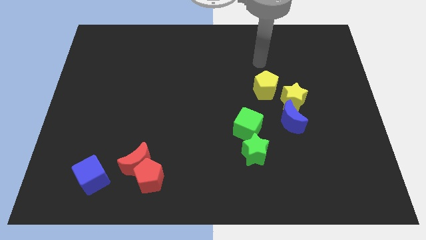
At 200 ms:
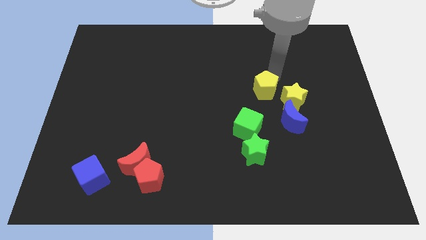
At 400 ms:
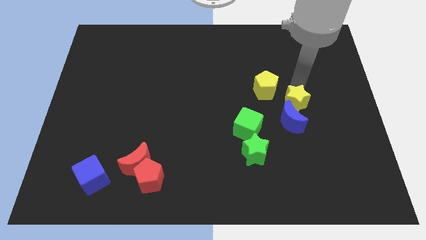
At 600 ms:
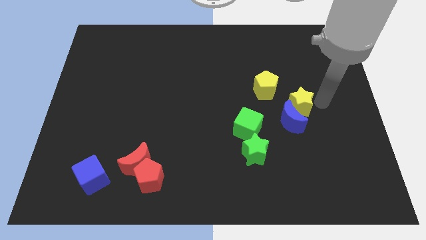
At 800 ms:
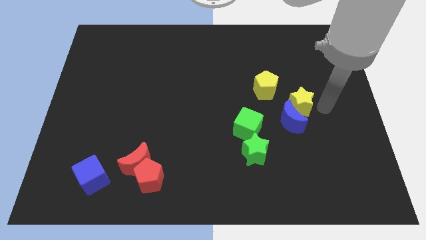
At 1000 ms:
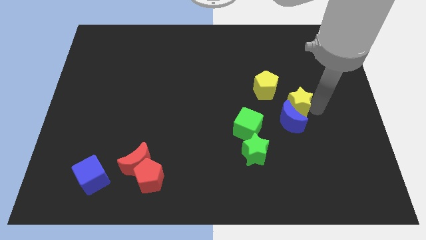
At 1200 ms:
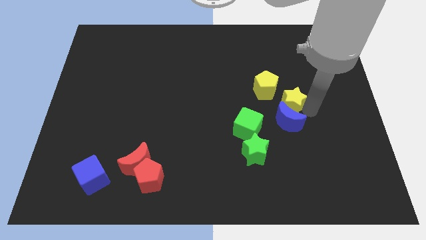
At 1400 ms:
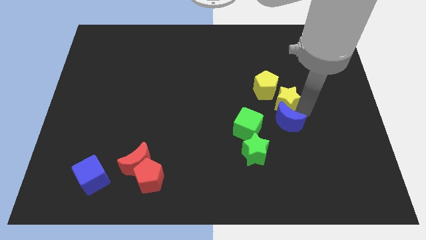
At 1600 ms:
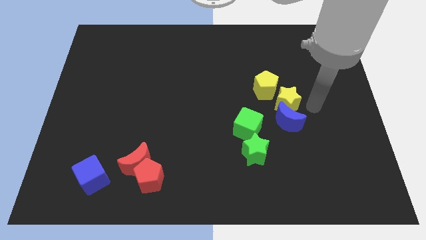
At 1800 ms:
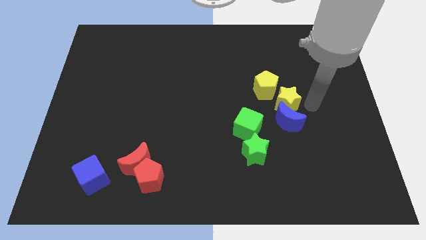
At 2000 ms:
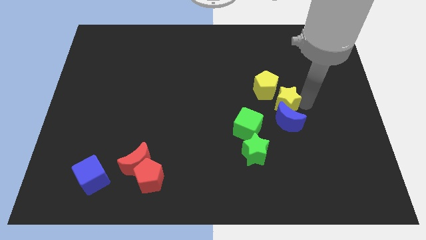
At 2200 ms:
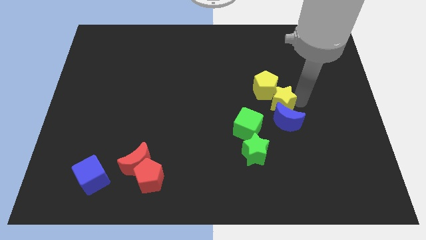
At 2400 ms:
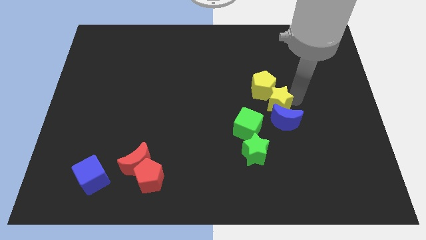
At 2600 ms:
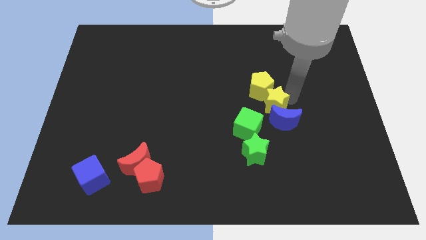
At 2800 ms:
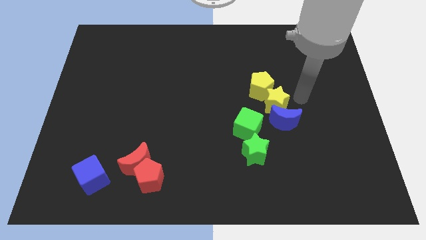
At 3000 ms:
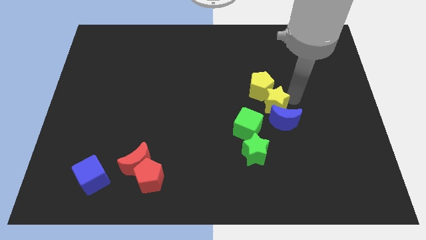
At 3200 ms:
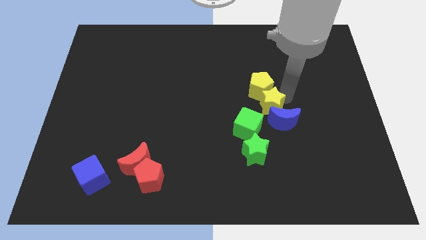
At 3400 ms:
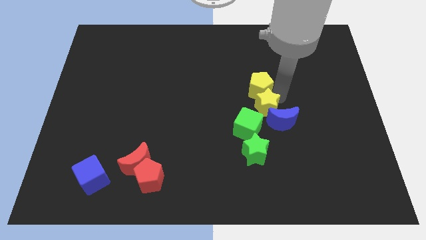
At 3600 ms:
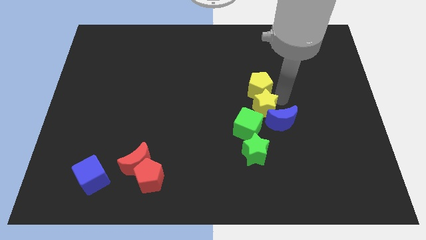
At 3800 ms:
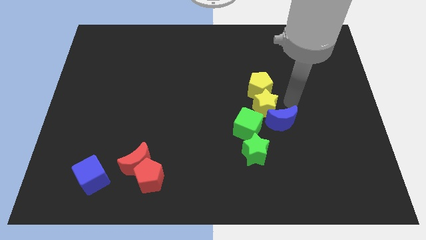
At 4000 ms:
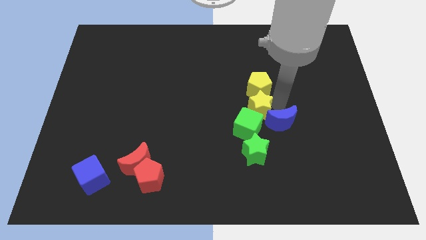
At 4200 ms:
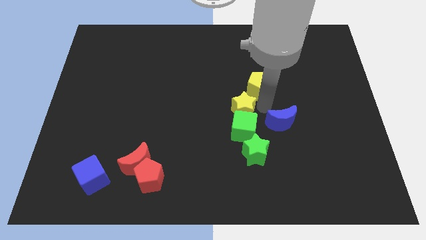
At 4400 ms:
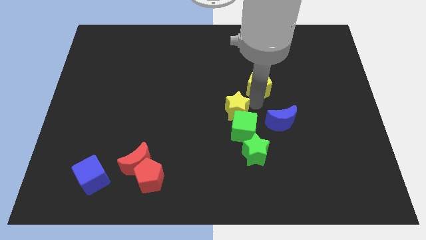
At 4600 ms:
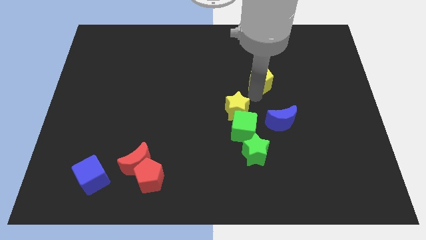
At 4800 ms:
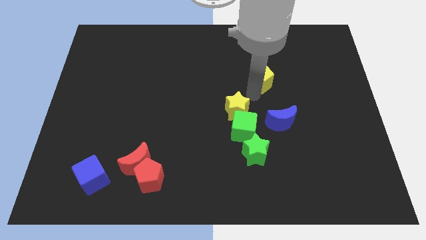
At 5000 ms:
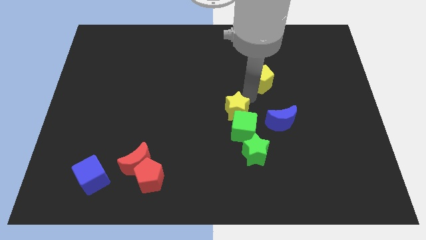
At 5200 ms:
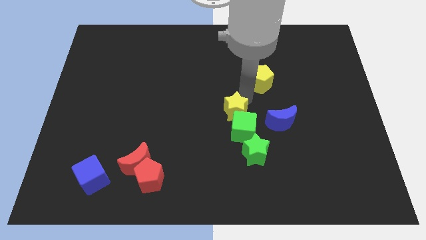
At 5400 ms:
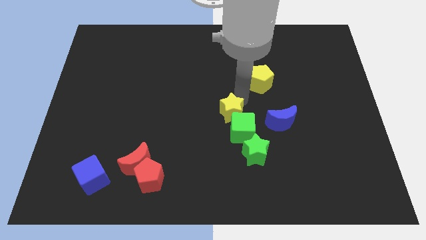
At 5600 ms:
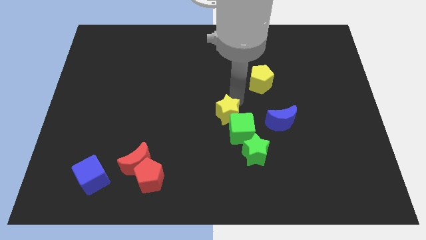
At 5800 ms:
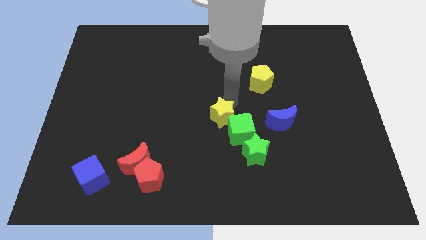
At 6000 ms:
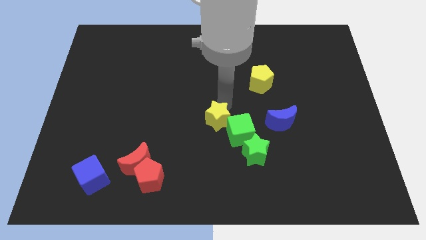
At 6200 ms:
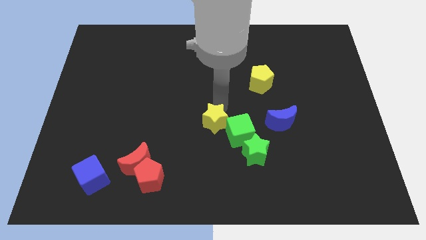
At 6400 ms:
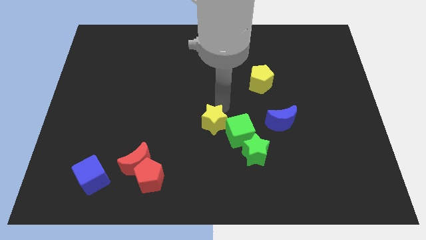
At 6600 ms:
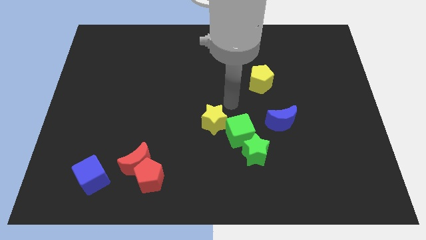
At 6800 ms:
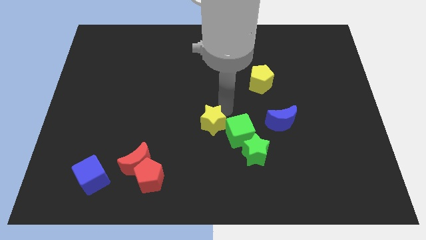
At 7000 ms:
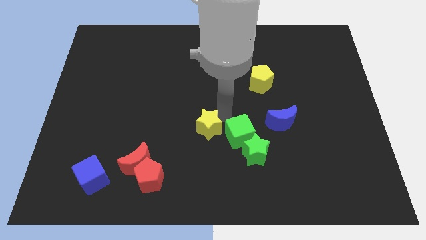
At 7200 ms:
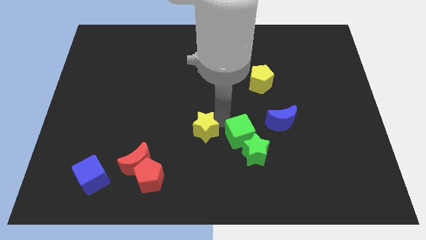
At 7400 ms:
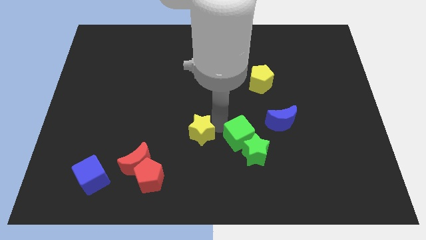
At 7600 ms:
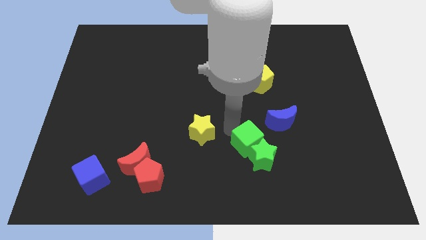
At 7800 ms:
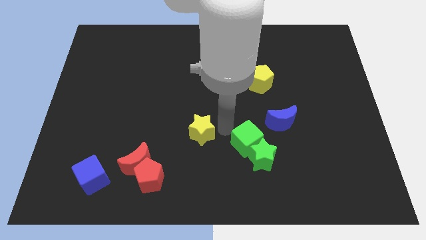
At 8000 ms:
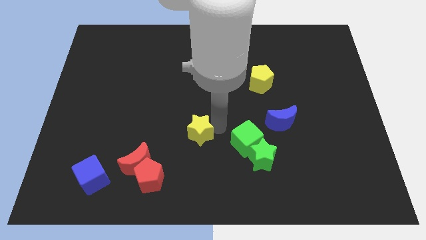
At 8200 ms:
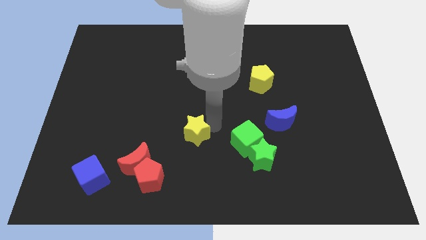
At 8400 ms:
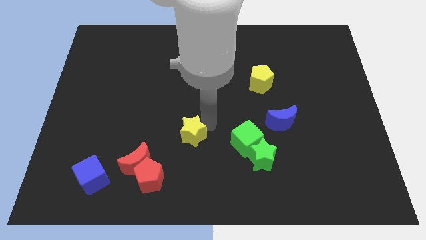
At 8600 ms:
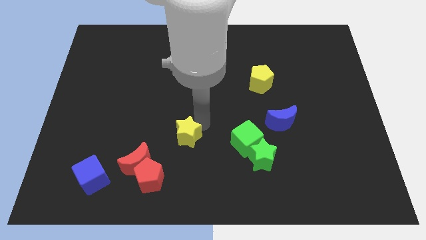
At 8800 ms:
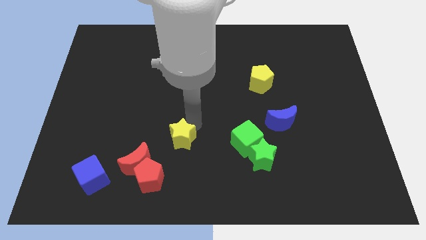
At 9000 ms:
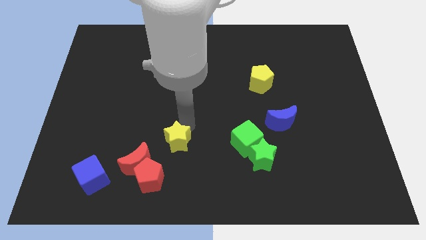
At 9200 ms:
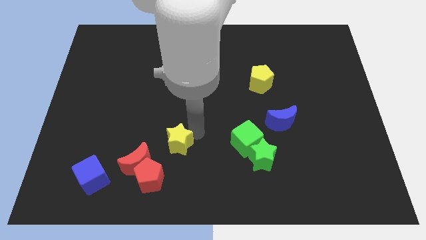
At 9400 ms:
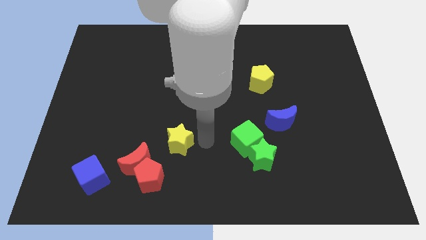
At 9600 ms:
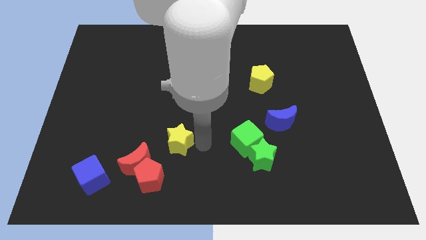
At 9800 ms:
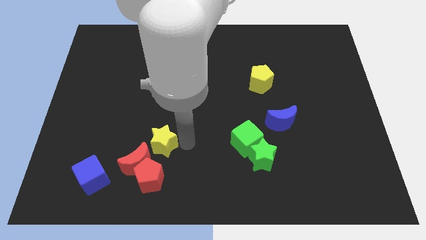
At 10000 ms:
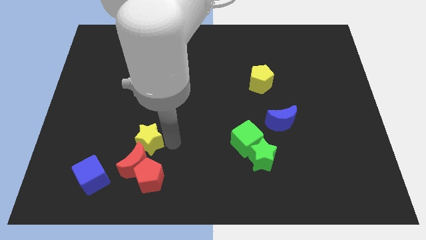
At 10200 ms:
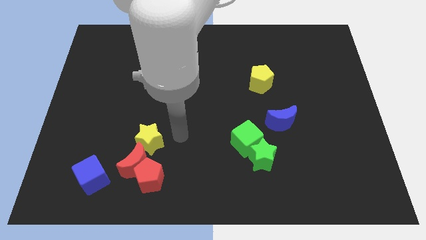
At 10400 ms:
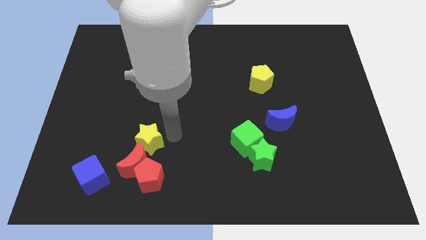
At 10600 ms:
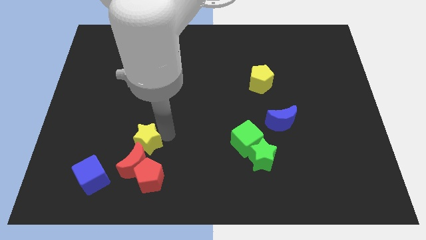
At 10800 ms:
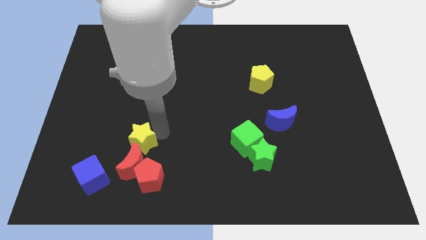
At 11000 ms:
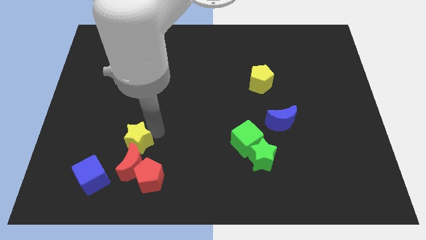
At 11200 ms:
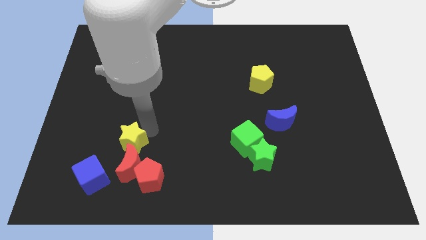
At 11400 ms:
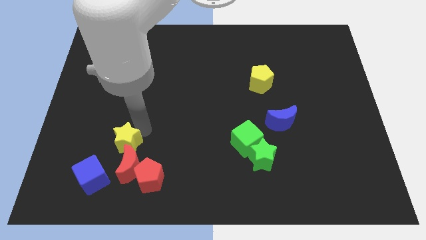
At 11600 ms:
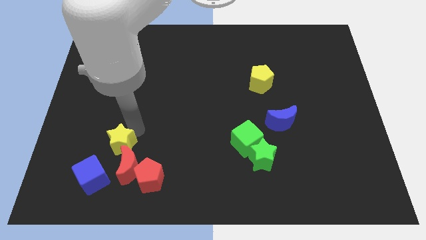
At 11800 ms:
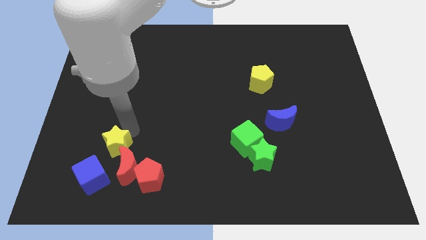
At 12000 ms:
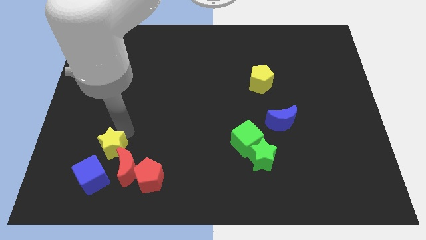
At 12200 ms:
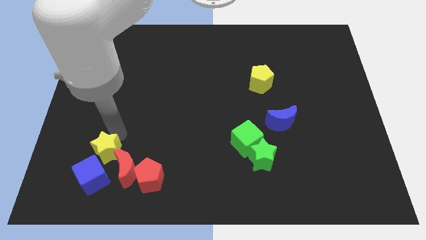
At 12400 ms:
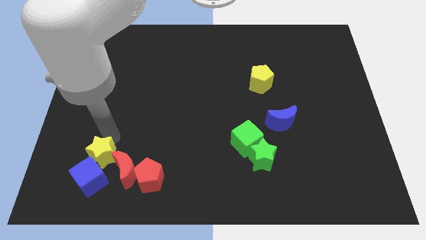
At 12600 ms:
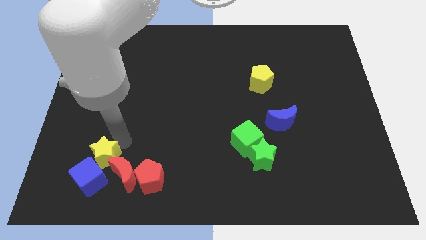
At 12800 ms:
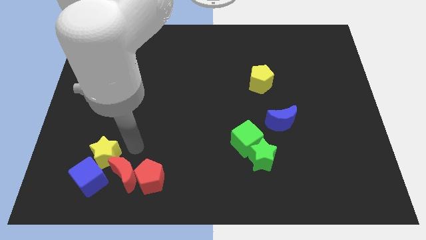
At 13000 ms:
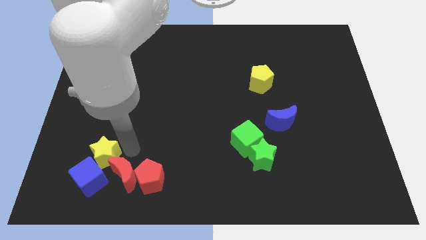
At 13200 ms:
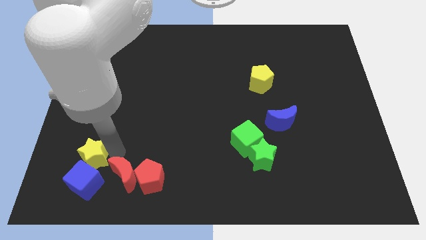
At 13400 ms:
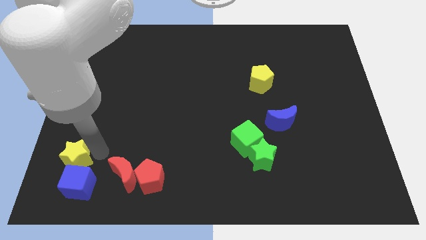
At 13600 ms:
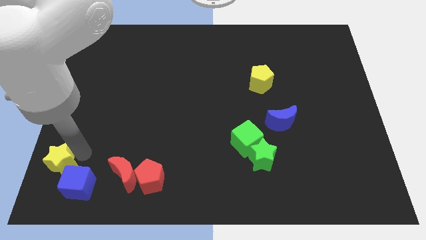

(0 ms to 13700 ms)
slide the yellow star to the bottom left
